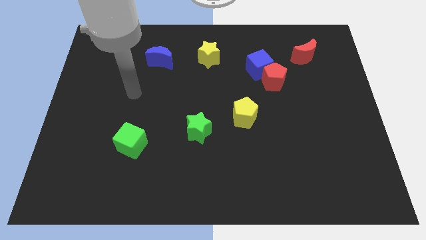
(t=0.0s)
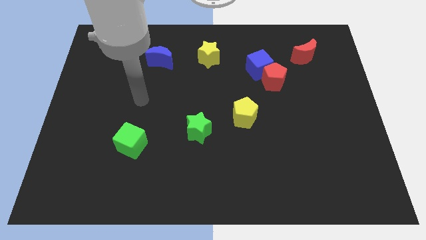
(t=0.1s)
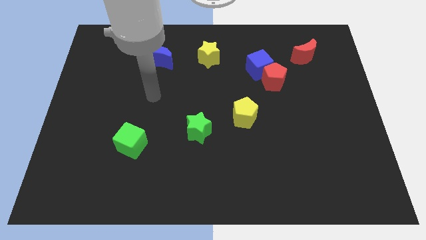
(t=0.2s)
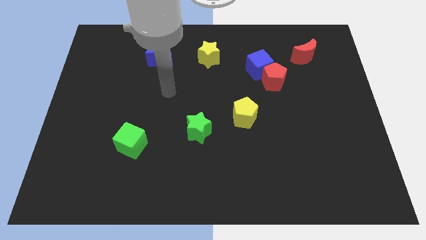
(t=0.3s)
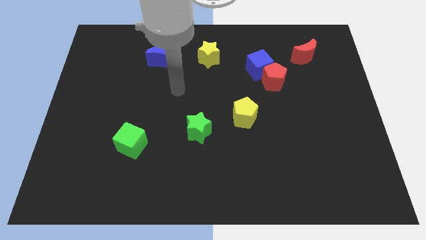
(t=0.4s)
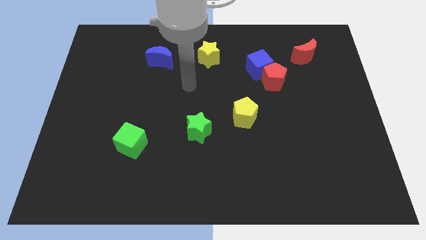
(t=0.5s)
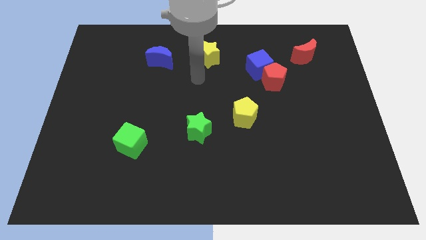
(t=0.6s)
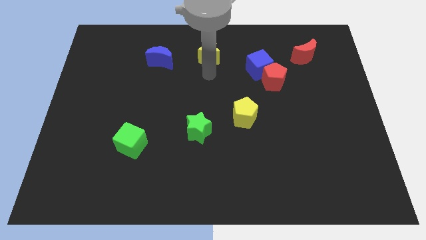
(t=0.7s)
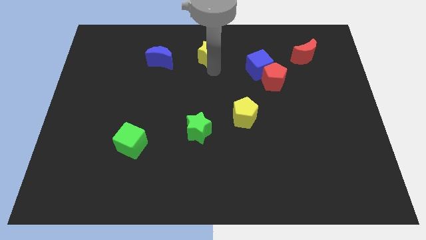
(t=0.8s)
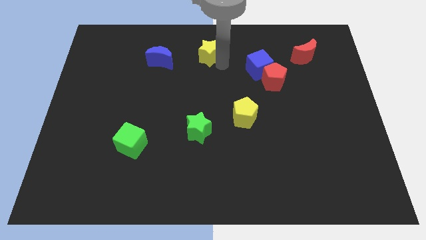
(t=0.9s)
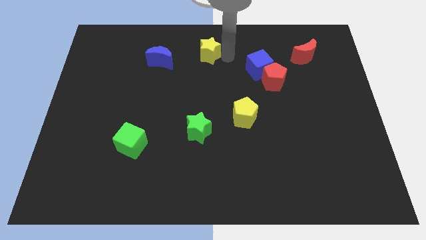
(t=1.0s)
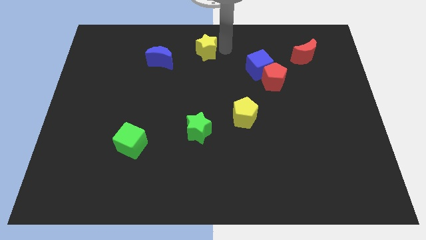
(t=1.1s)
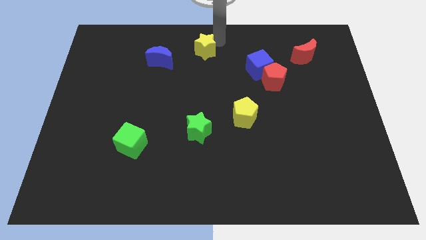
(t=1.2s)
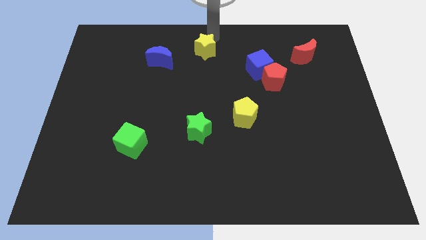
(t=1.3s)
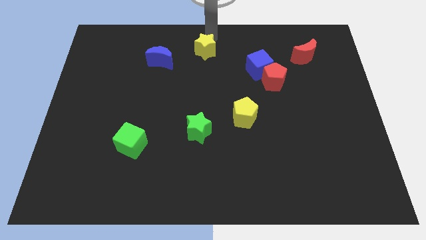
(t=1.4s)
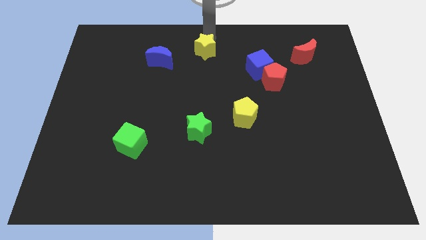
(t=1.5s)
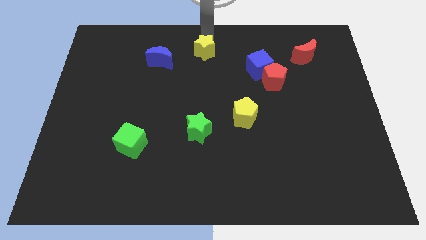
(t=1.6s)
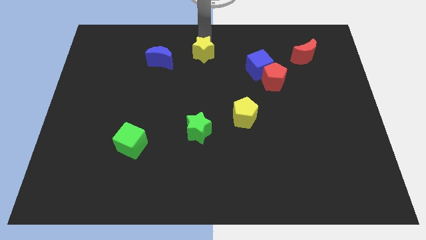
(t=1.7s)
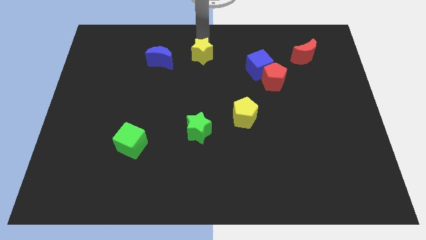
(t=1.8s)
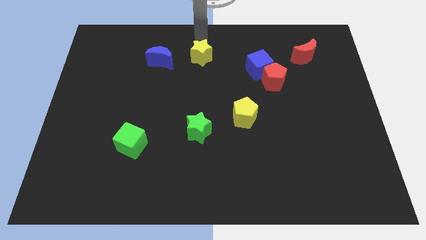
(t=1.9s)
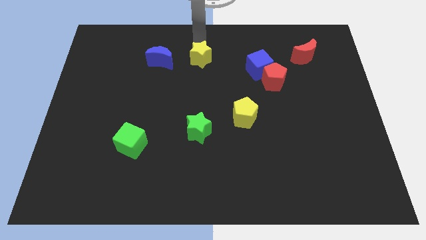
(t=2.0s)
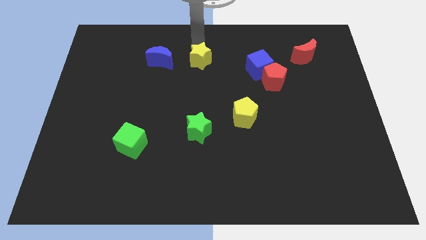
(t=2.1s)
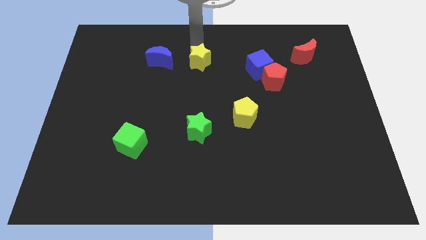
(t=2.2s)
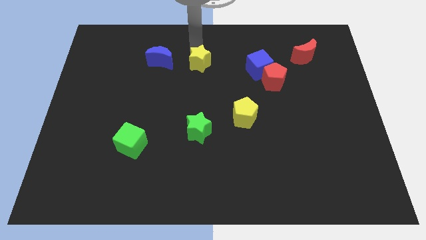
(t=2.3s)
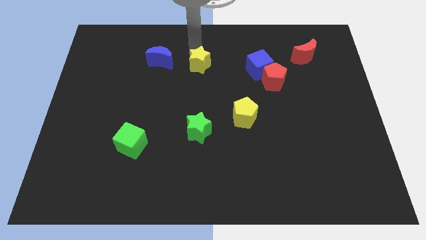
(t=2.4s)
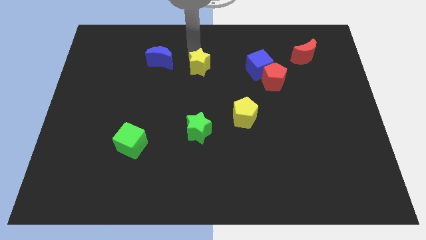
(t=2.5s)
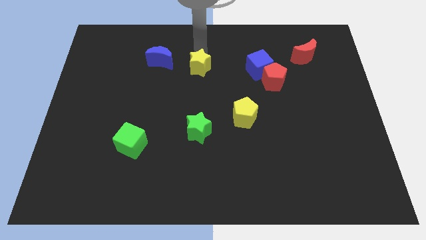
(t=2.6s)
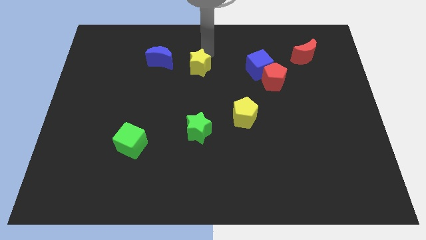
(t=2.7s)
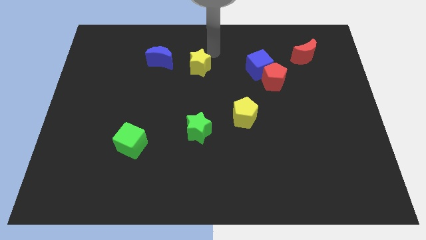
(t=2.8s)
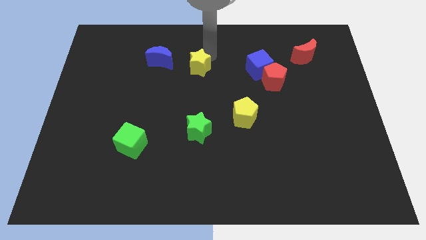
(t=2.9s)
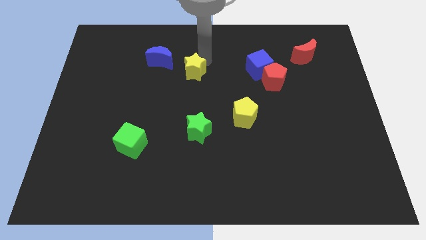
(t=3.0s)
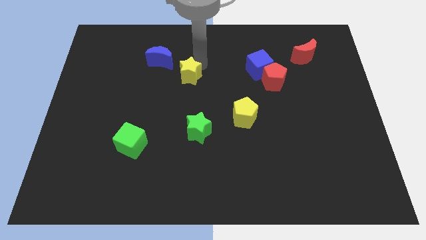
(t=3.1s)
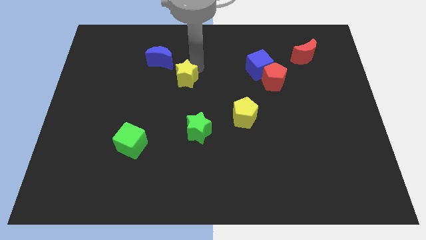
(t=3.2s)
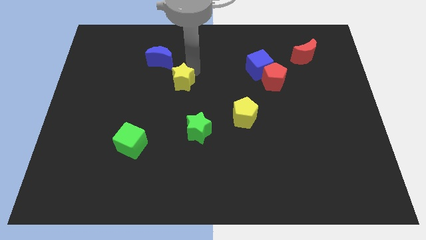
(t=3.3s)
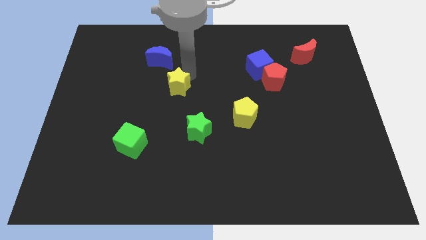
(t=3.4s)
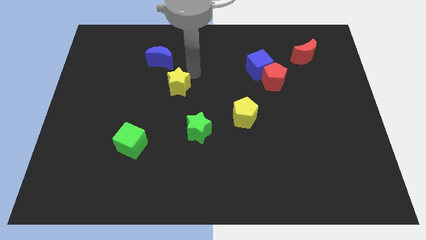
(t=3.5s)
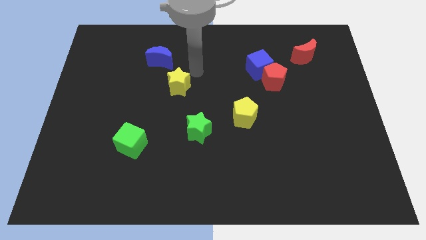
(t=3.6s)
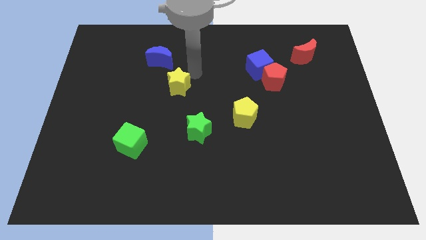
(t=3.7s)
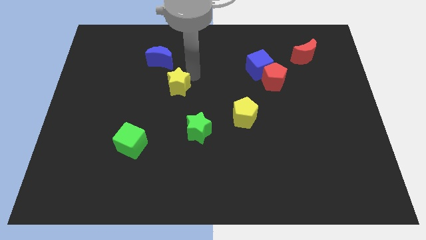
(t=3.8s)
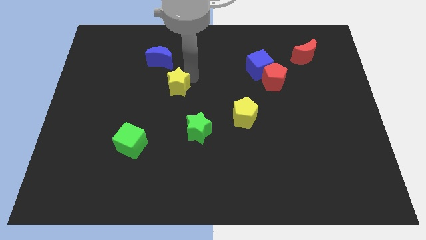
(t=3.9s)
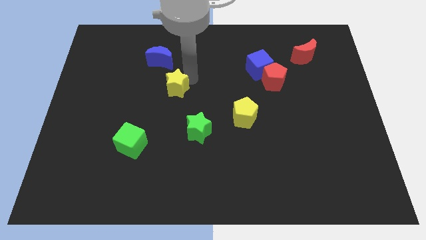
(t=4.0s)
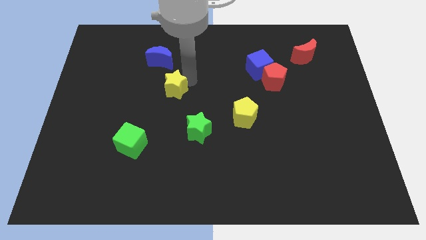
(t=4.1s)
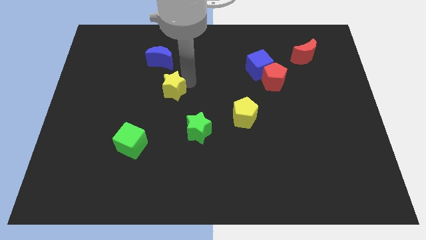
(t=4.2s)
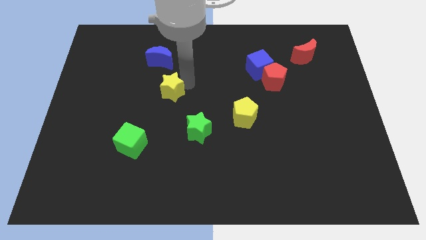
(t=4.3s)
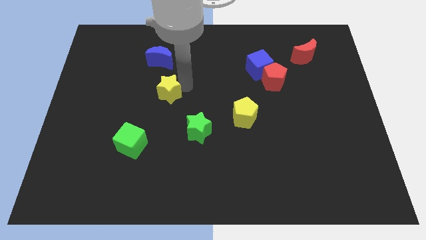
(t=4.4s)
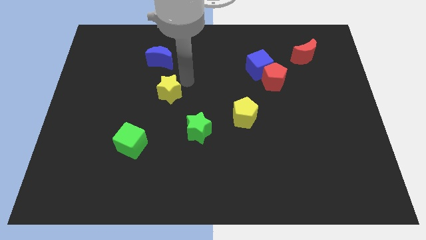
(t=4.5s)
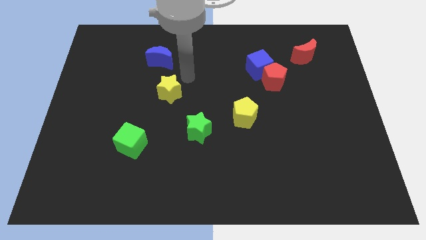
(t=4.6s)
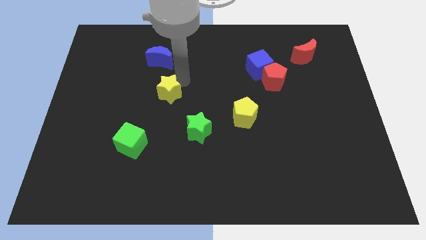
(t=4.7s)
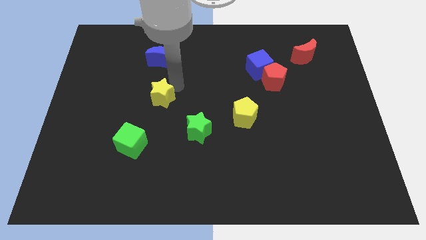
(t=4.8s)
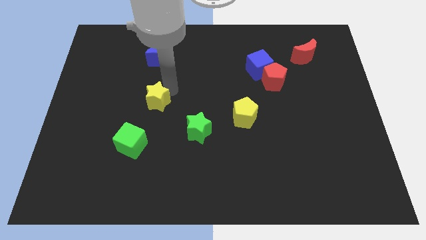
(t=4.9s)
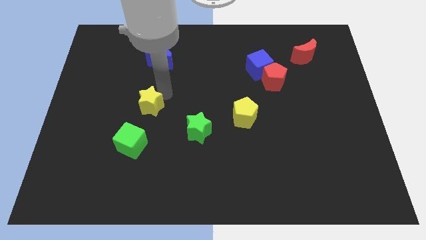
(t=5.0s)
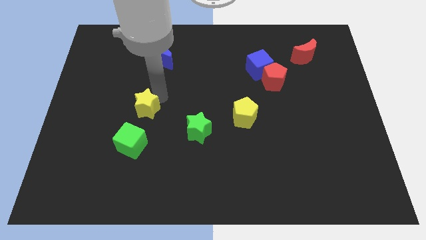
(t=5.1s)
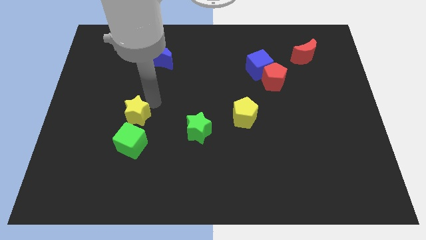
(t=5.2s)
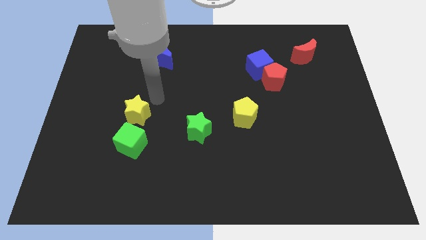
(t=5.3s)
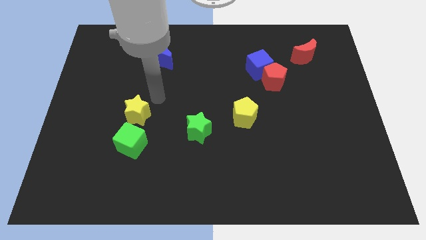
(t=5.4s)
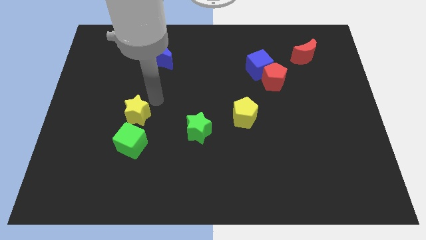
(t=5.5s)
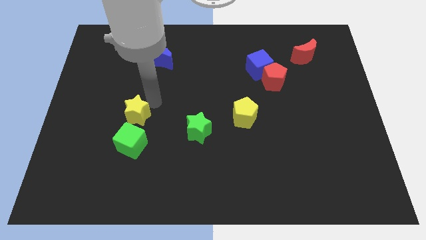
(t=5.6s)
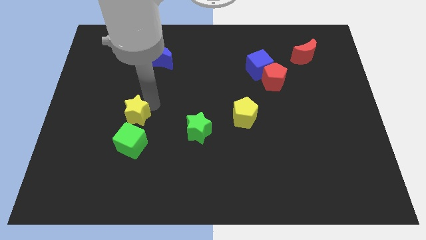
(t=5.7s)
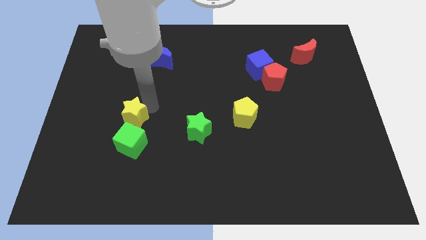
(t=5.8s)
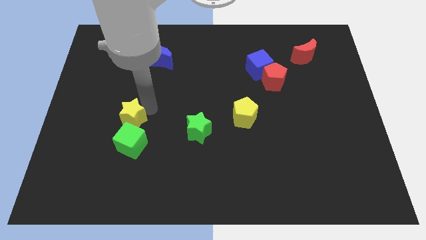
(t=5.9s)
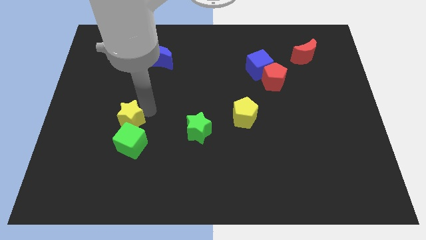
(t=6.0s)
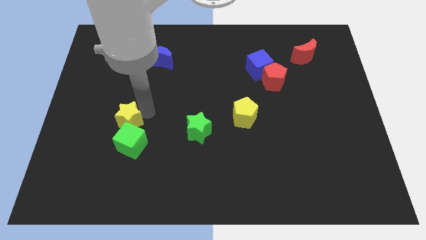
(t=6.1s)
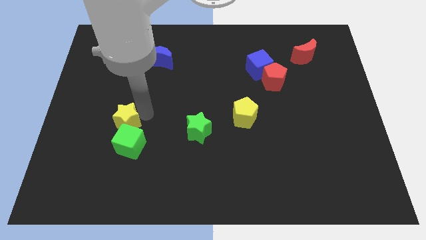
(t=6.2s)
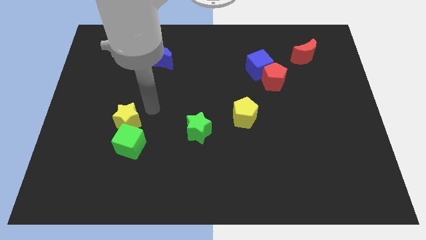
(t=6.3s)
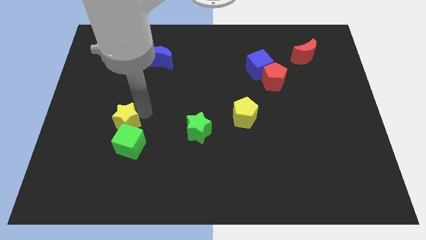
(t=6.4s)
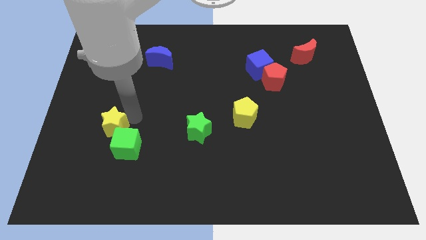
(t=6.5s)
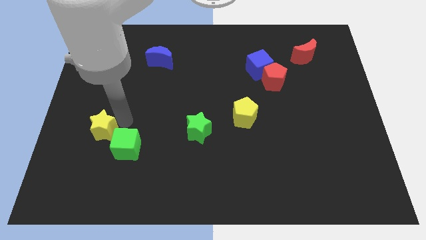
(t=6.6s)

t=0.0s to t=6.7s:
put the yellow star to the left of the green cube

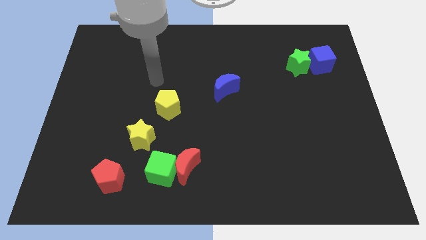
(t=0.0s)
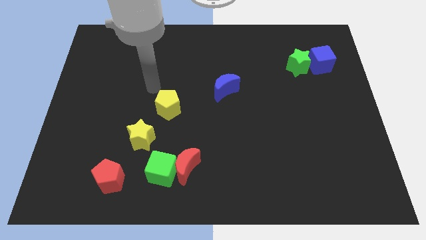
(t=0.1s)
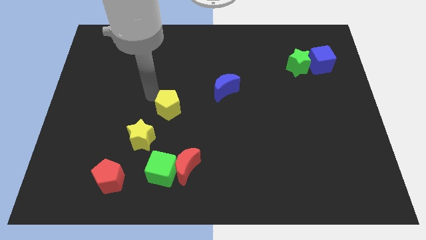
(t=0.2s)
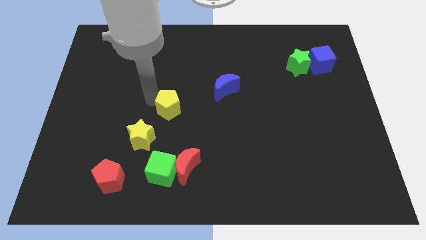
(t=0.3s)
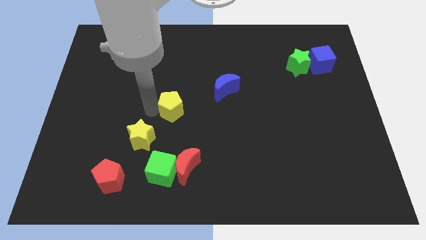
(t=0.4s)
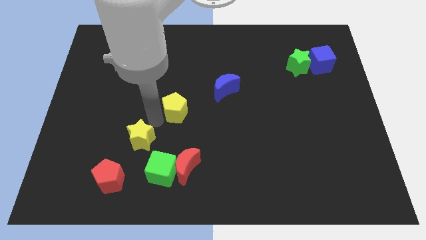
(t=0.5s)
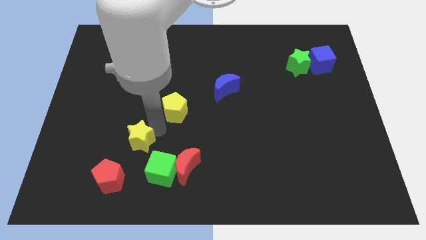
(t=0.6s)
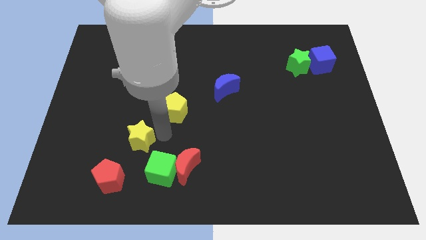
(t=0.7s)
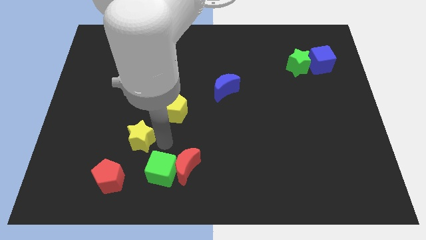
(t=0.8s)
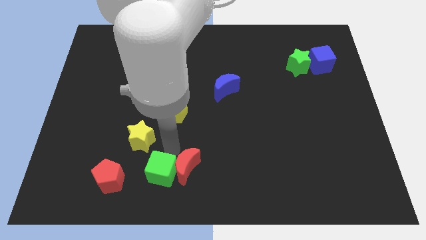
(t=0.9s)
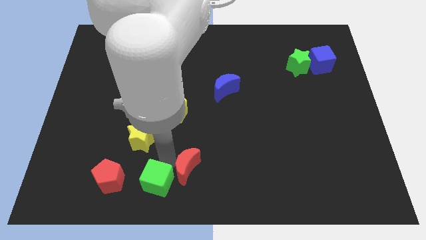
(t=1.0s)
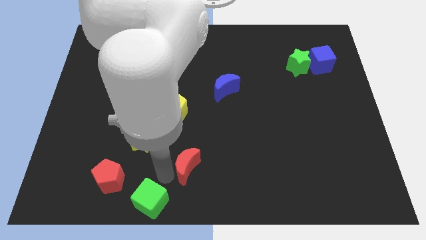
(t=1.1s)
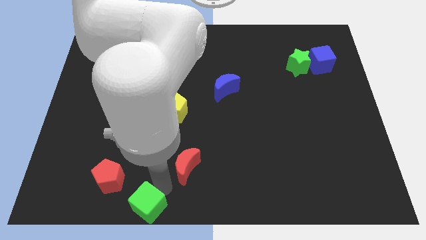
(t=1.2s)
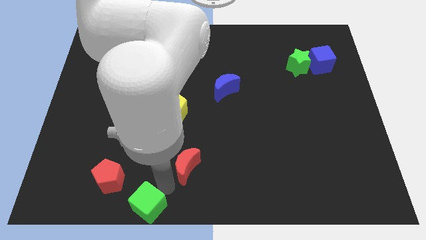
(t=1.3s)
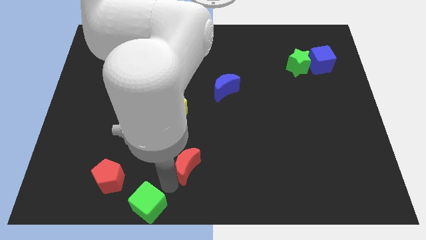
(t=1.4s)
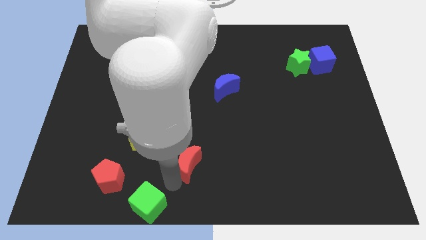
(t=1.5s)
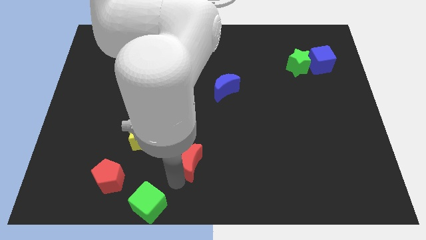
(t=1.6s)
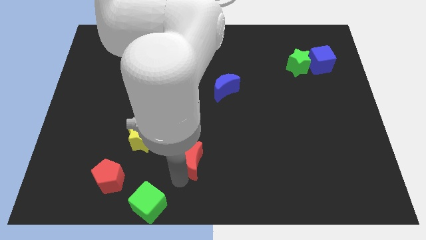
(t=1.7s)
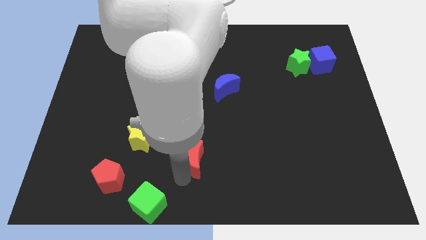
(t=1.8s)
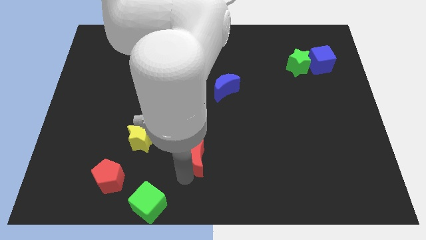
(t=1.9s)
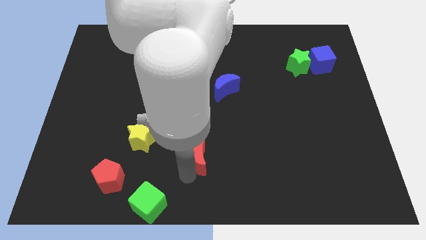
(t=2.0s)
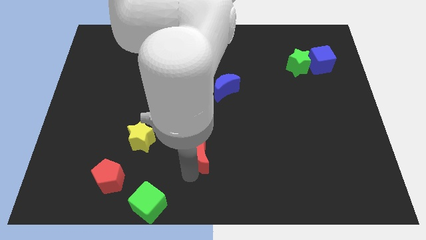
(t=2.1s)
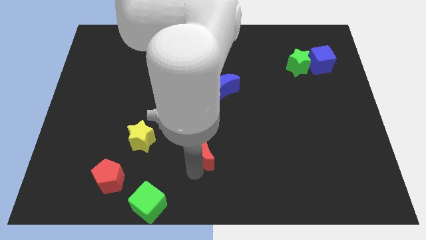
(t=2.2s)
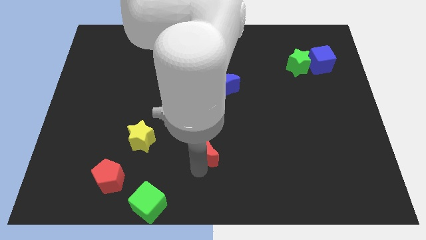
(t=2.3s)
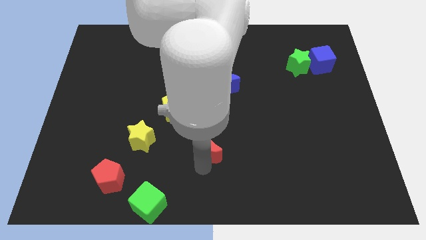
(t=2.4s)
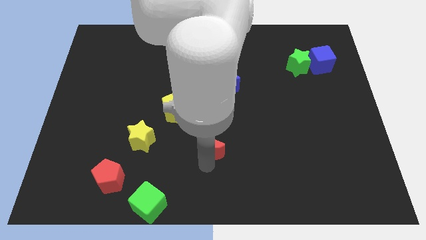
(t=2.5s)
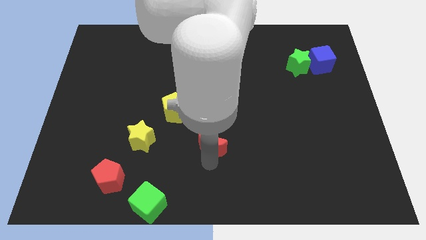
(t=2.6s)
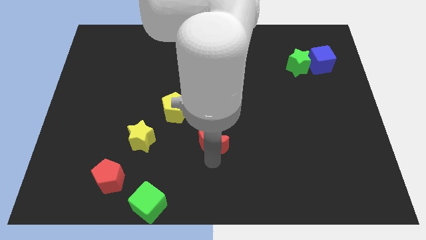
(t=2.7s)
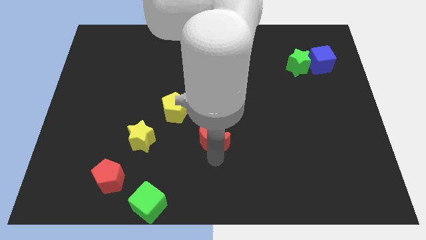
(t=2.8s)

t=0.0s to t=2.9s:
move the red moon below the blue moon
